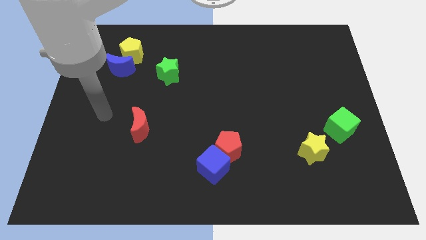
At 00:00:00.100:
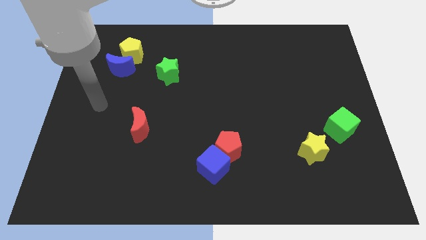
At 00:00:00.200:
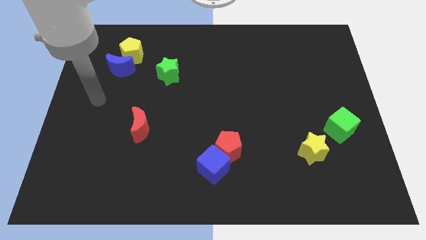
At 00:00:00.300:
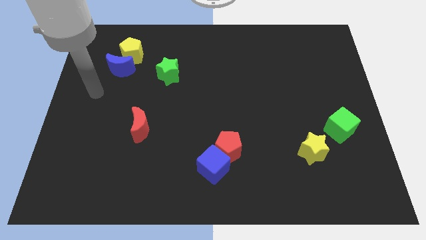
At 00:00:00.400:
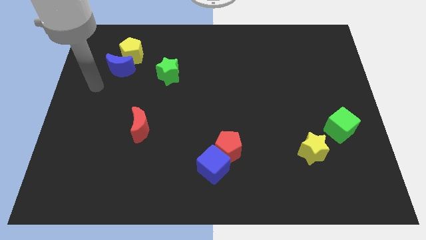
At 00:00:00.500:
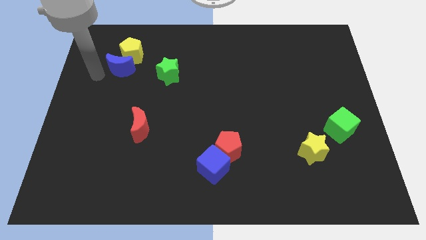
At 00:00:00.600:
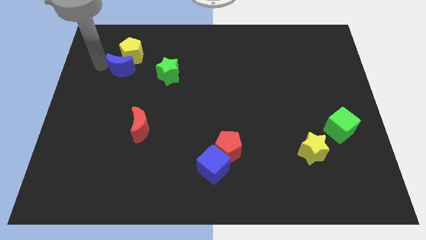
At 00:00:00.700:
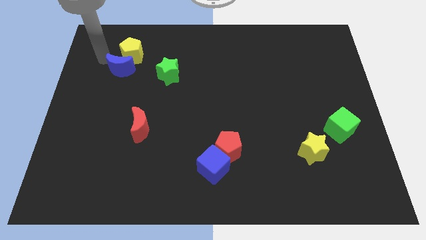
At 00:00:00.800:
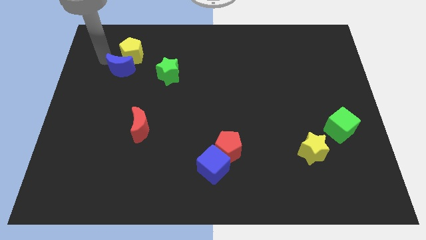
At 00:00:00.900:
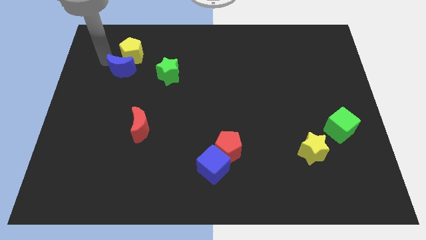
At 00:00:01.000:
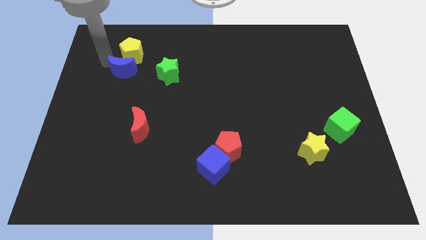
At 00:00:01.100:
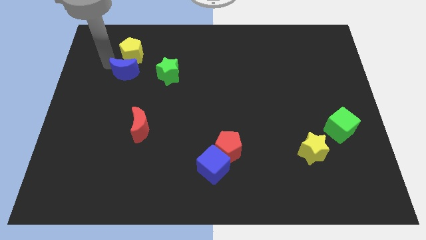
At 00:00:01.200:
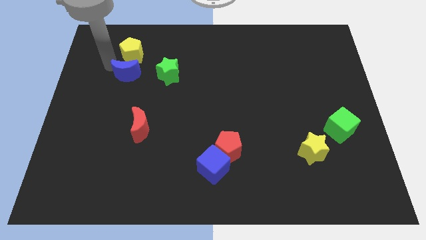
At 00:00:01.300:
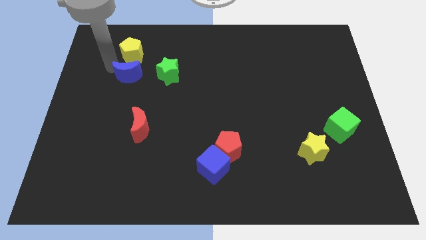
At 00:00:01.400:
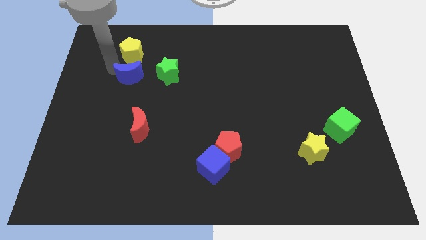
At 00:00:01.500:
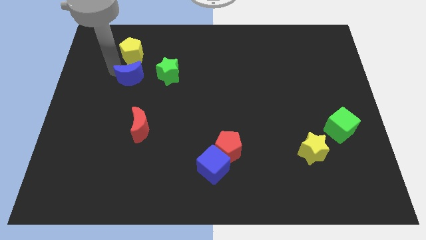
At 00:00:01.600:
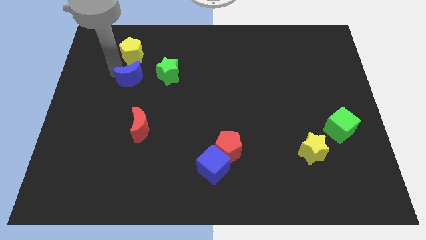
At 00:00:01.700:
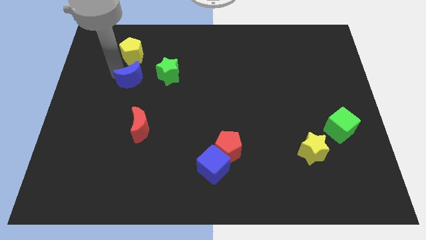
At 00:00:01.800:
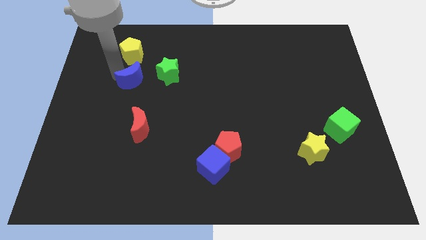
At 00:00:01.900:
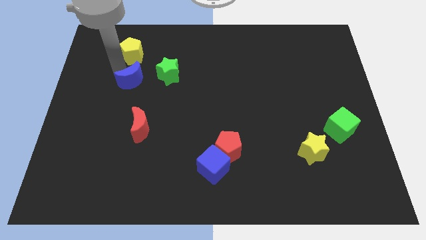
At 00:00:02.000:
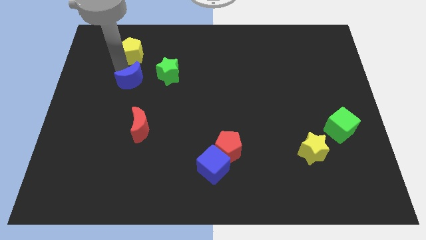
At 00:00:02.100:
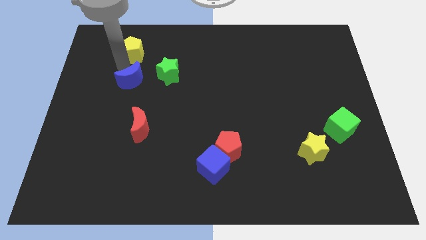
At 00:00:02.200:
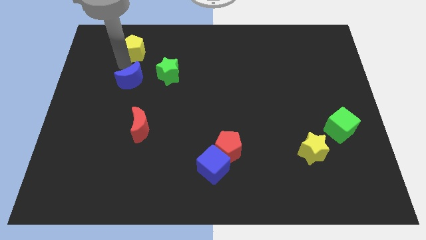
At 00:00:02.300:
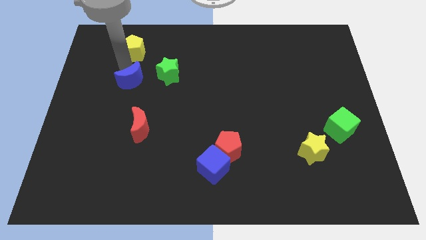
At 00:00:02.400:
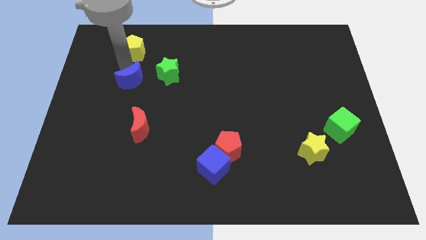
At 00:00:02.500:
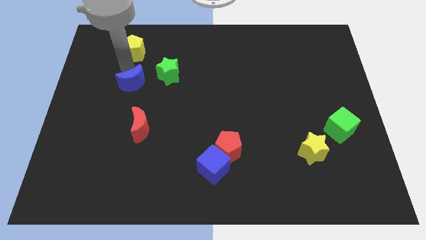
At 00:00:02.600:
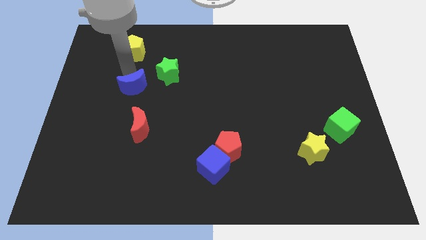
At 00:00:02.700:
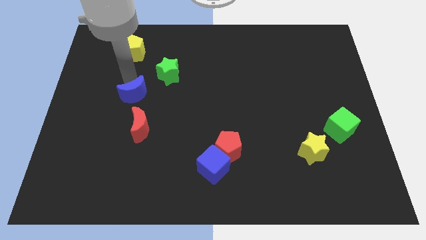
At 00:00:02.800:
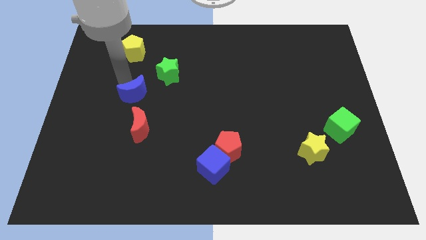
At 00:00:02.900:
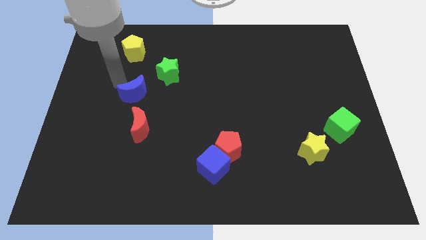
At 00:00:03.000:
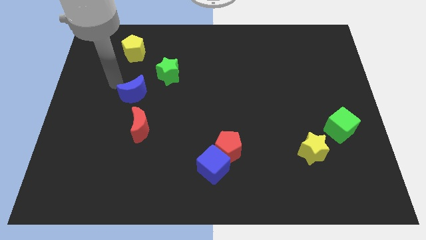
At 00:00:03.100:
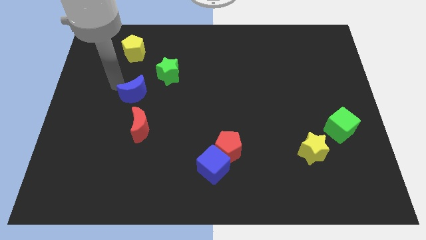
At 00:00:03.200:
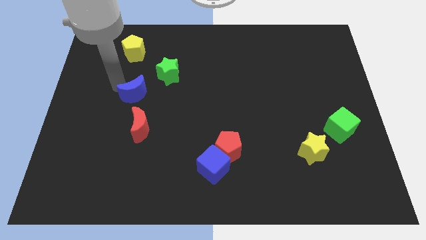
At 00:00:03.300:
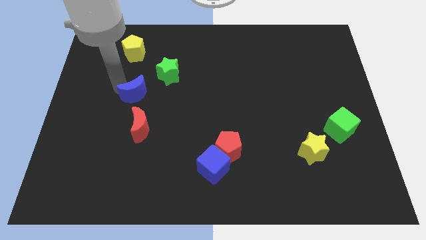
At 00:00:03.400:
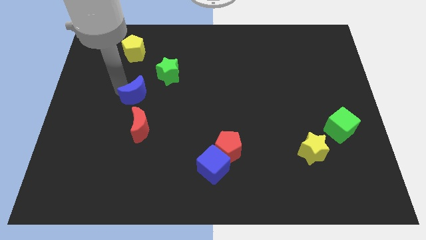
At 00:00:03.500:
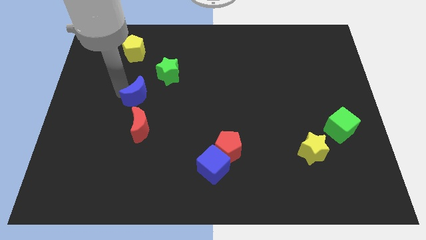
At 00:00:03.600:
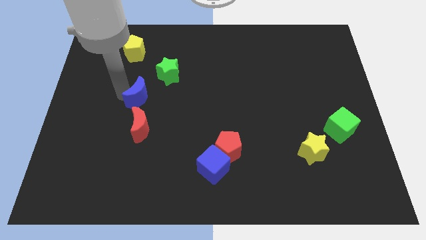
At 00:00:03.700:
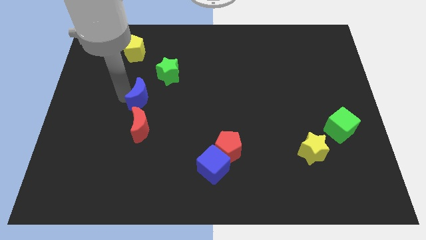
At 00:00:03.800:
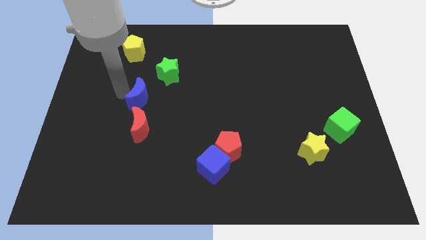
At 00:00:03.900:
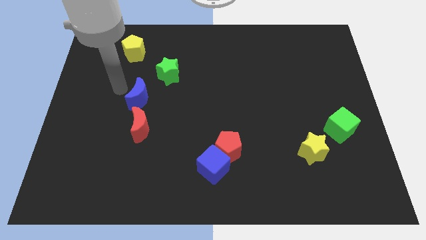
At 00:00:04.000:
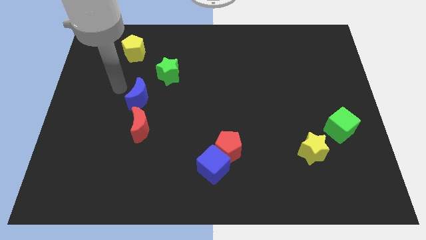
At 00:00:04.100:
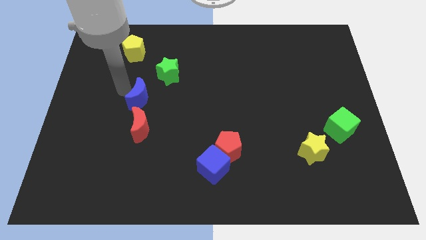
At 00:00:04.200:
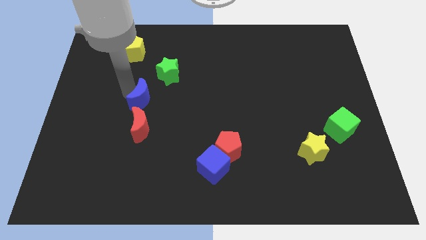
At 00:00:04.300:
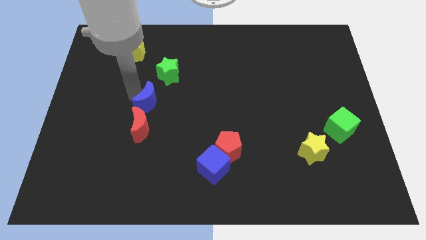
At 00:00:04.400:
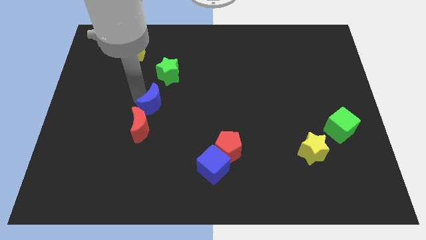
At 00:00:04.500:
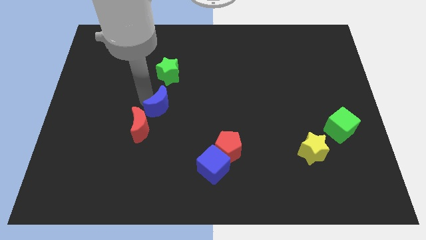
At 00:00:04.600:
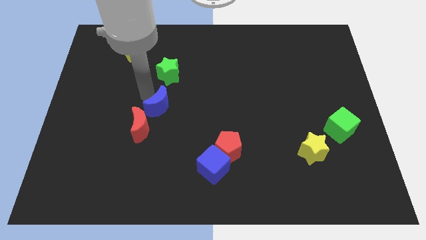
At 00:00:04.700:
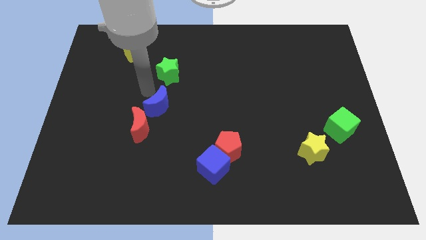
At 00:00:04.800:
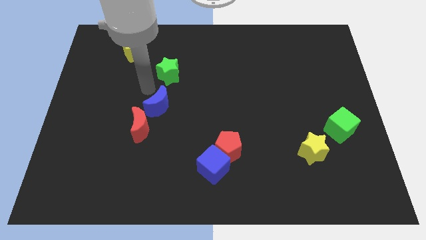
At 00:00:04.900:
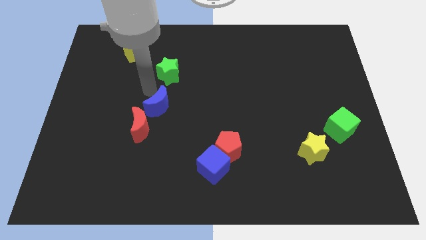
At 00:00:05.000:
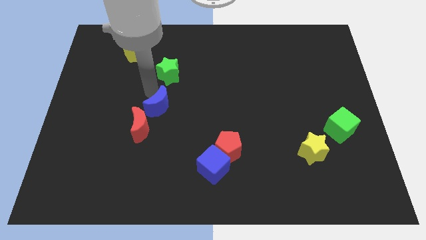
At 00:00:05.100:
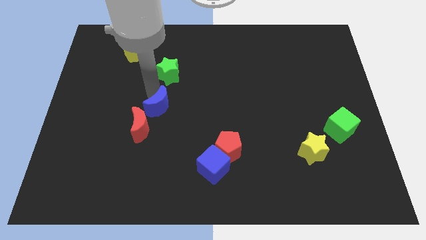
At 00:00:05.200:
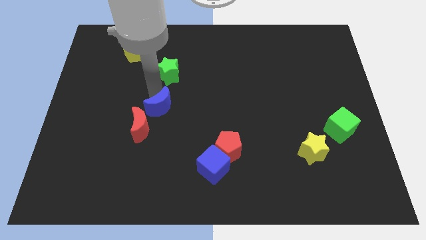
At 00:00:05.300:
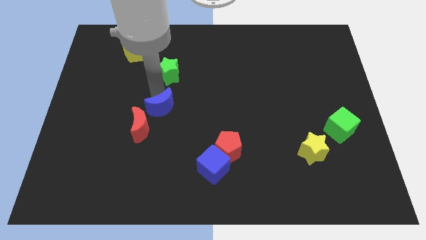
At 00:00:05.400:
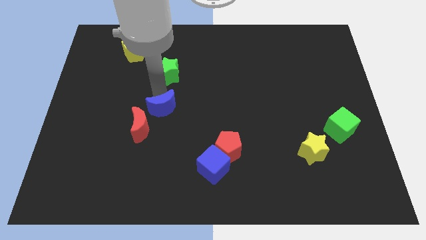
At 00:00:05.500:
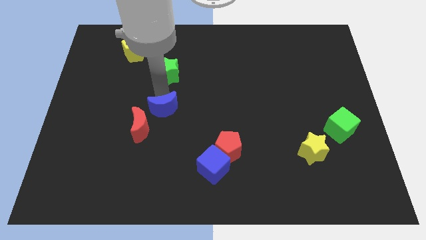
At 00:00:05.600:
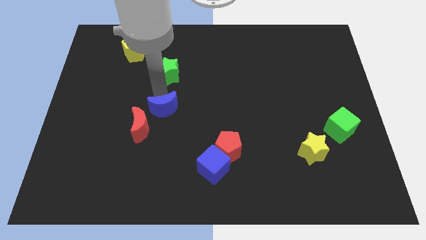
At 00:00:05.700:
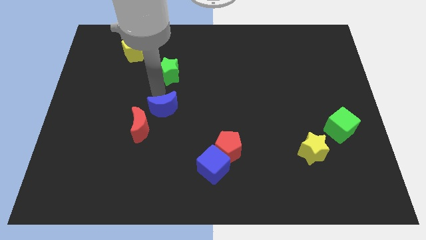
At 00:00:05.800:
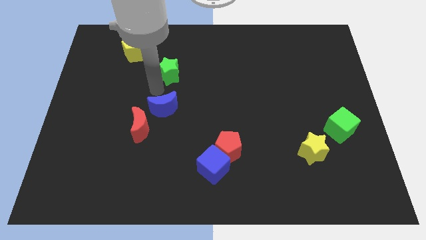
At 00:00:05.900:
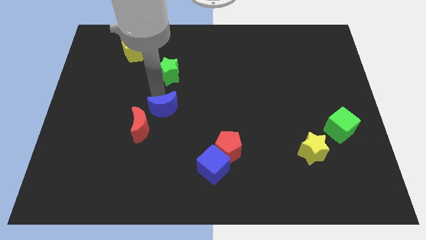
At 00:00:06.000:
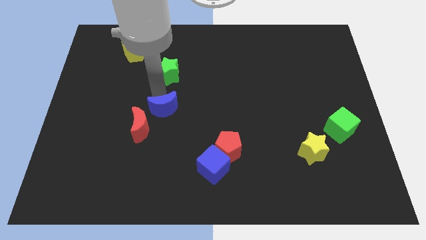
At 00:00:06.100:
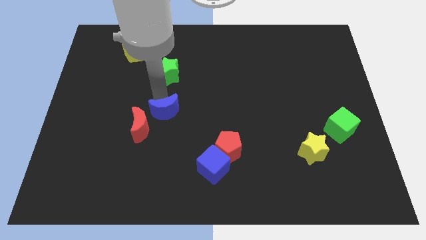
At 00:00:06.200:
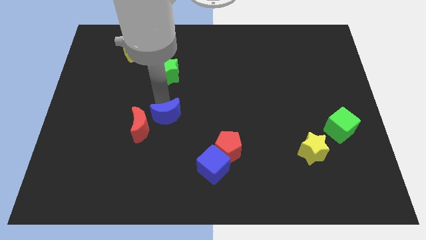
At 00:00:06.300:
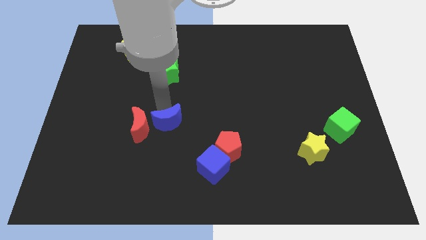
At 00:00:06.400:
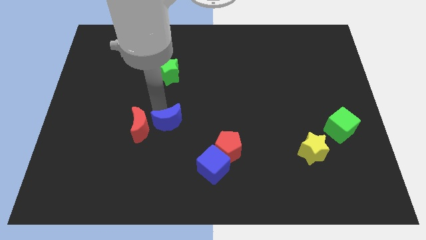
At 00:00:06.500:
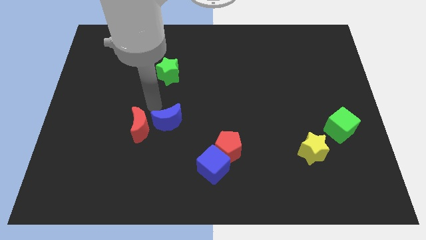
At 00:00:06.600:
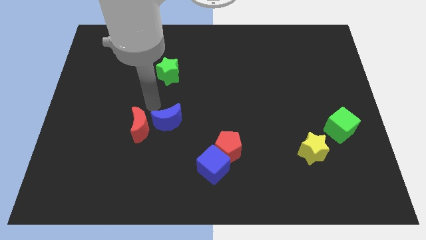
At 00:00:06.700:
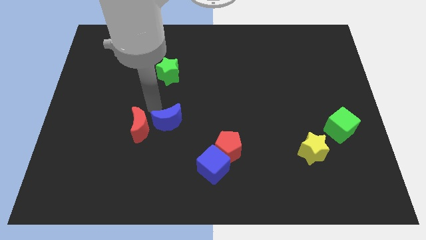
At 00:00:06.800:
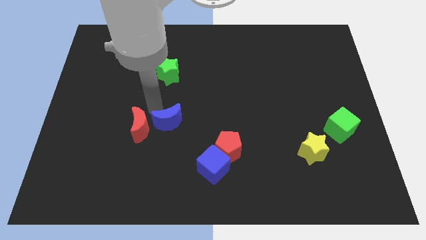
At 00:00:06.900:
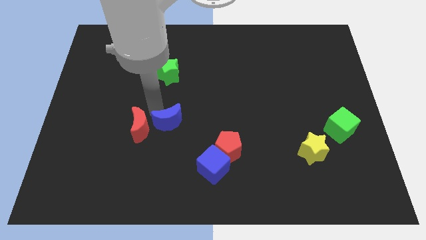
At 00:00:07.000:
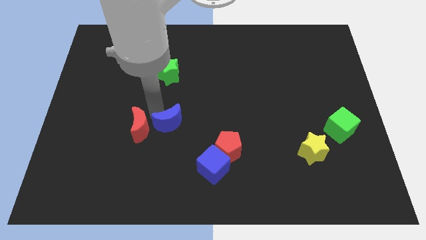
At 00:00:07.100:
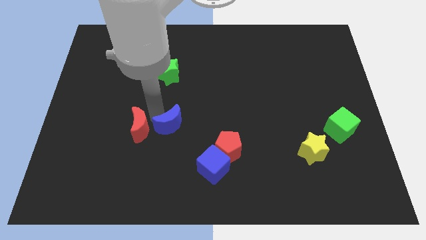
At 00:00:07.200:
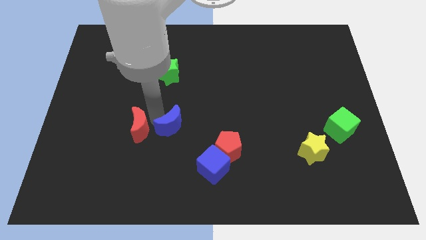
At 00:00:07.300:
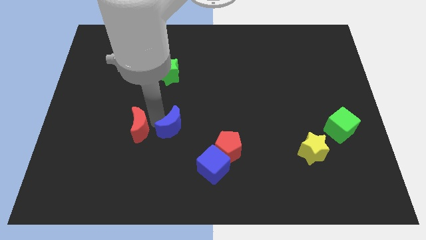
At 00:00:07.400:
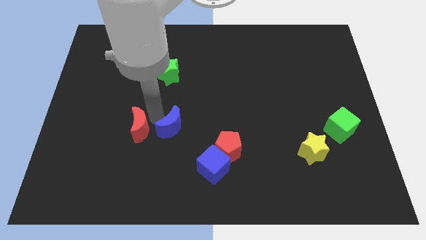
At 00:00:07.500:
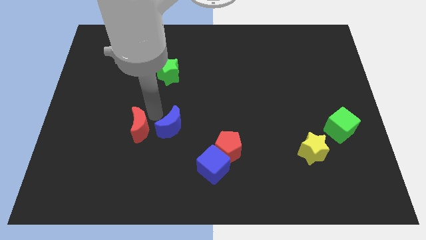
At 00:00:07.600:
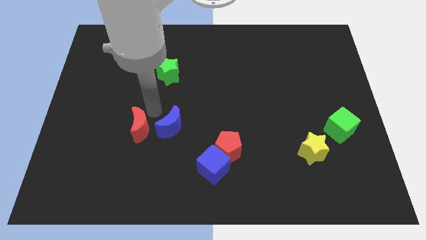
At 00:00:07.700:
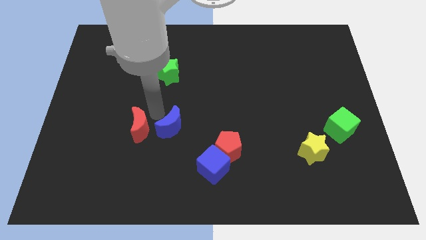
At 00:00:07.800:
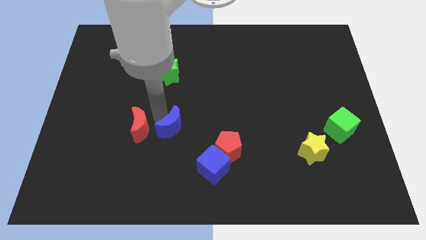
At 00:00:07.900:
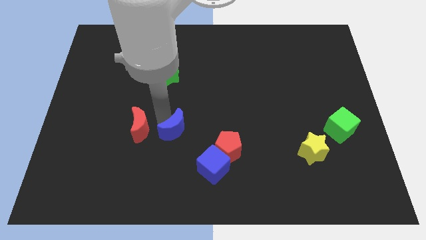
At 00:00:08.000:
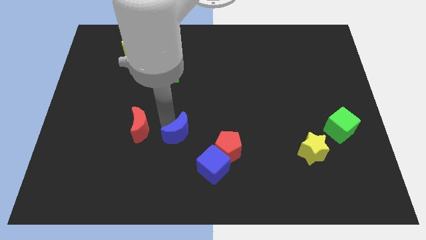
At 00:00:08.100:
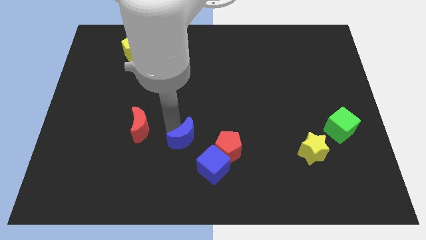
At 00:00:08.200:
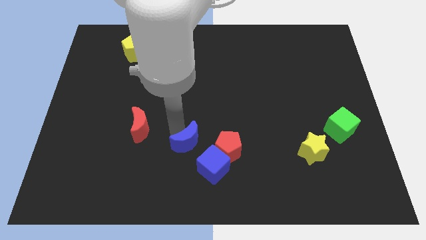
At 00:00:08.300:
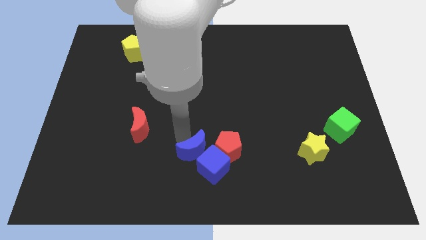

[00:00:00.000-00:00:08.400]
put the blue moon close to the blue cube
